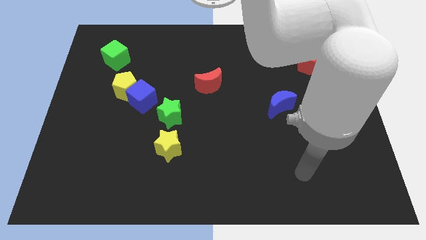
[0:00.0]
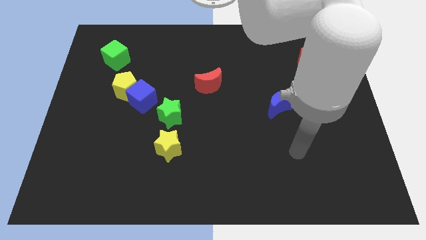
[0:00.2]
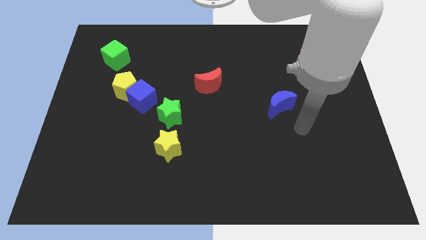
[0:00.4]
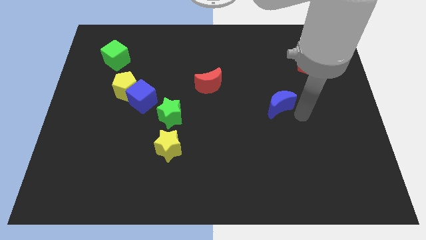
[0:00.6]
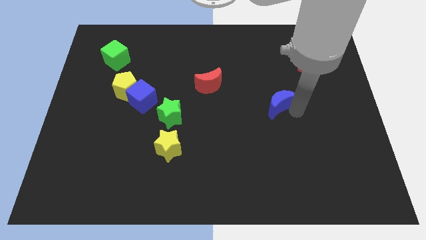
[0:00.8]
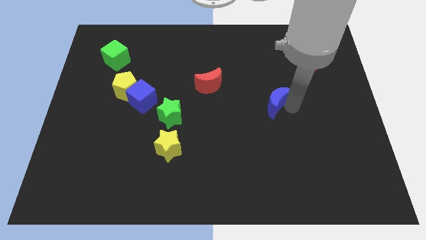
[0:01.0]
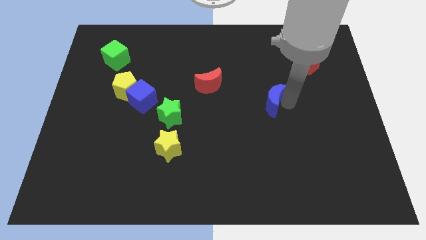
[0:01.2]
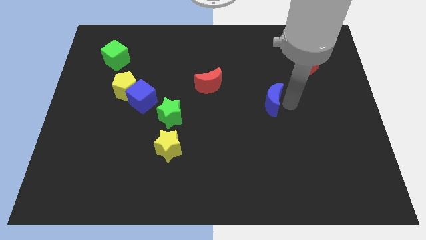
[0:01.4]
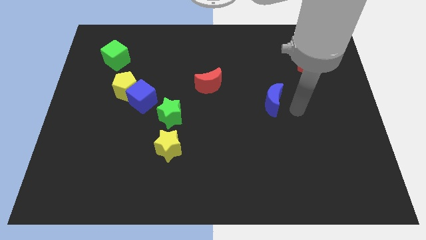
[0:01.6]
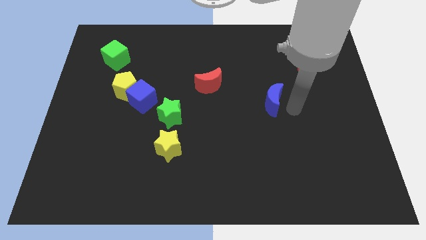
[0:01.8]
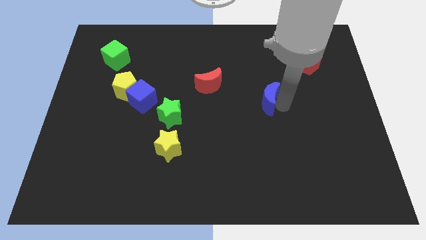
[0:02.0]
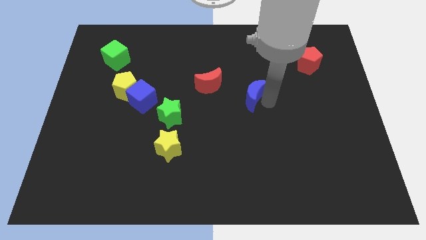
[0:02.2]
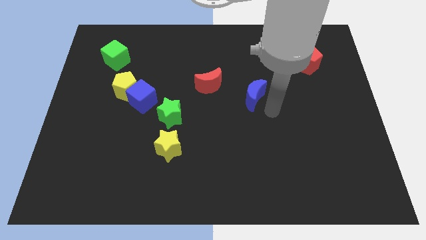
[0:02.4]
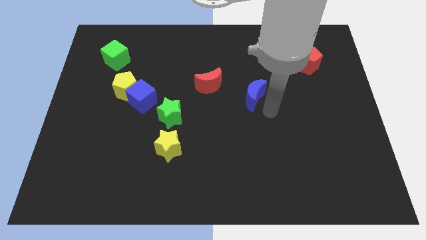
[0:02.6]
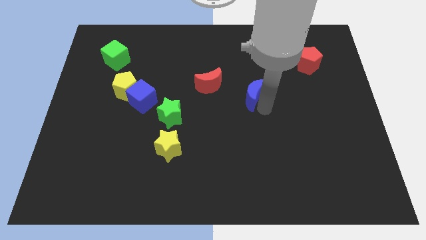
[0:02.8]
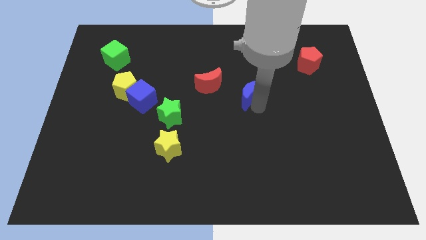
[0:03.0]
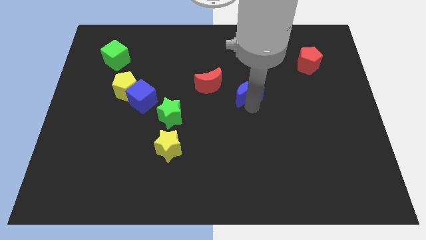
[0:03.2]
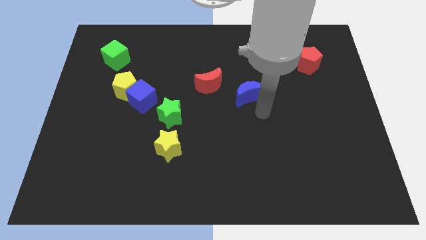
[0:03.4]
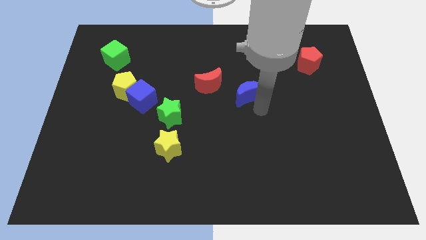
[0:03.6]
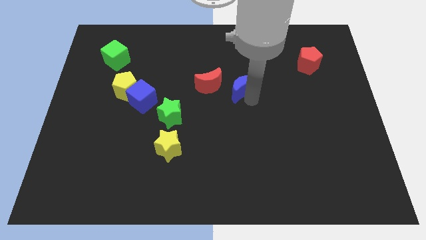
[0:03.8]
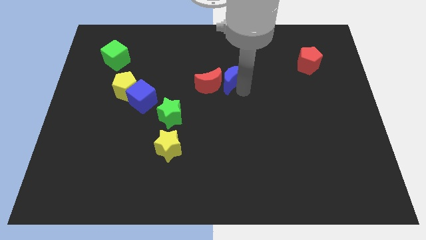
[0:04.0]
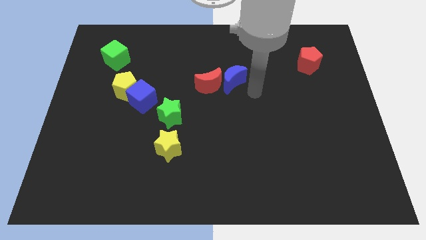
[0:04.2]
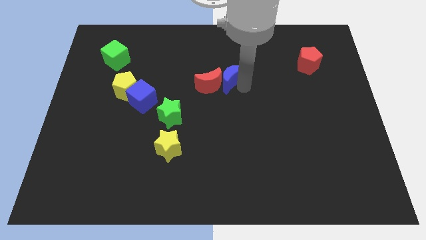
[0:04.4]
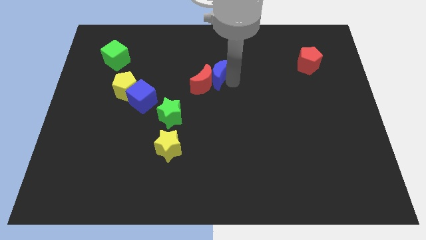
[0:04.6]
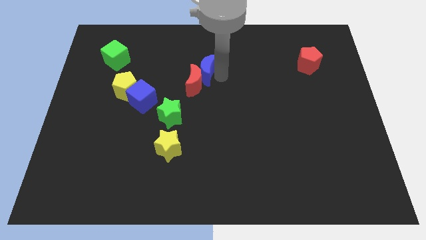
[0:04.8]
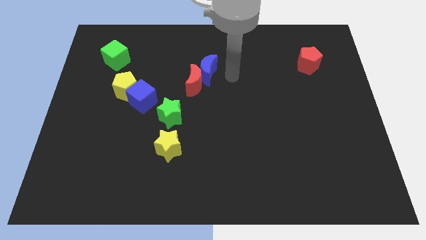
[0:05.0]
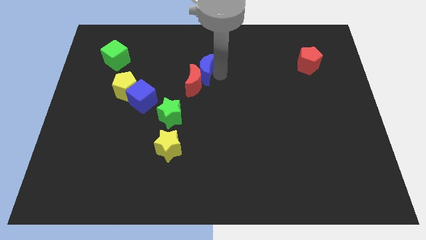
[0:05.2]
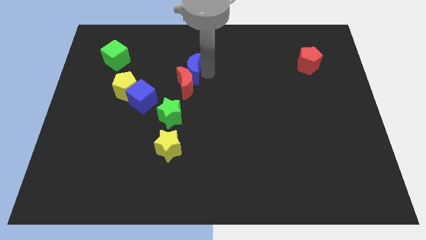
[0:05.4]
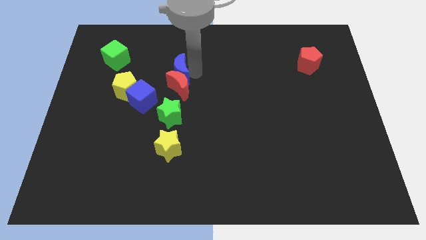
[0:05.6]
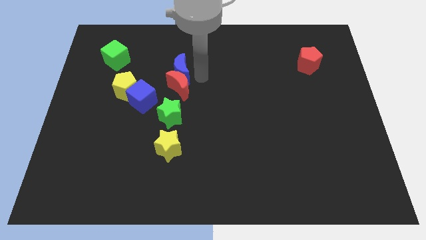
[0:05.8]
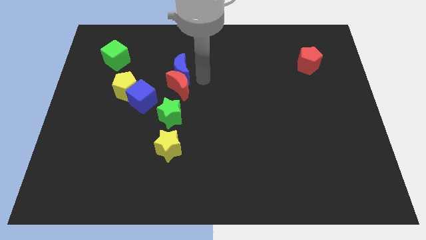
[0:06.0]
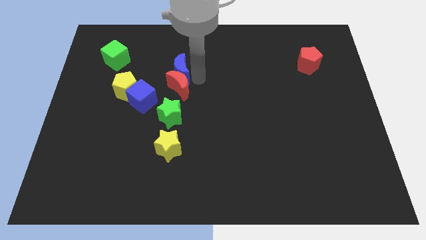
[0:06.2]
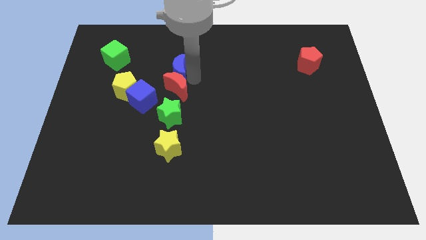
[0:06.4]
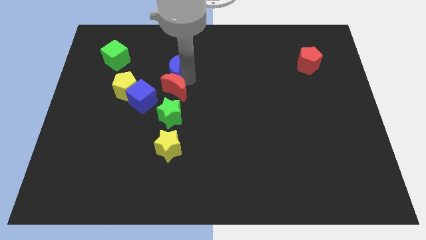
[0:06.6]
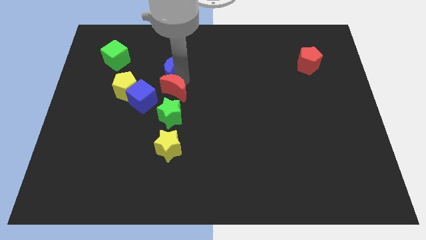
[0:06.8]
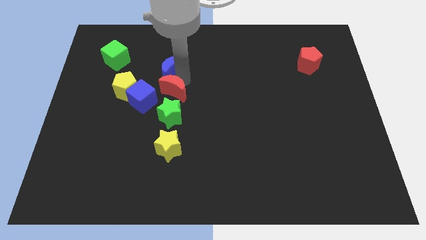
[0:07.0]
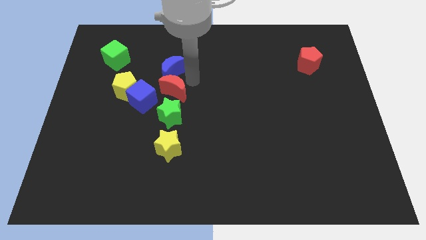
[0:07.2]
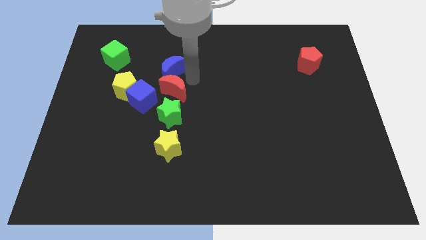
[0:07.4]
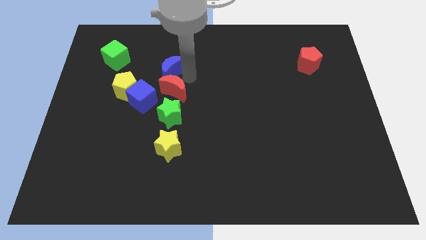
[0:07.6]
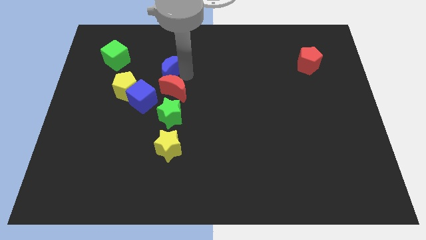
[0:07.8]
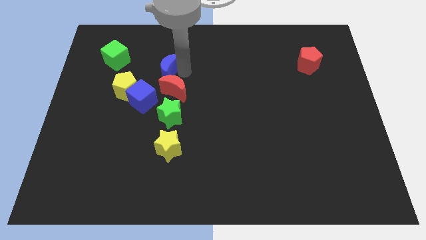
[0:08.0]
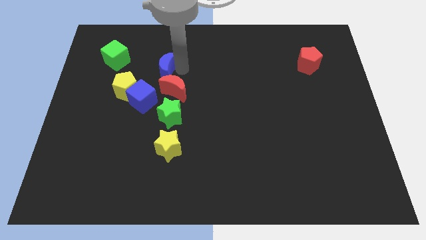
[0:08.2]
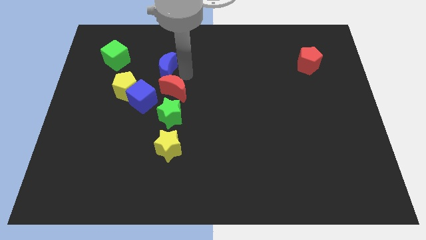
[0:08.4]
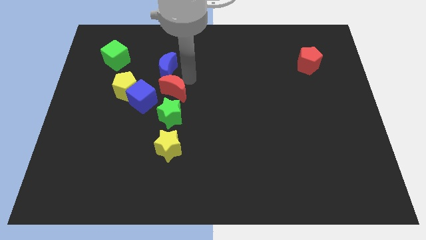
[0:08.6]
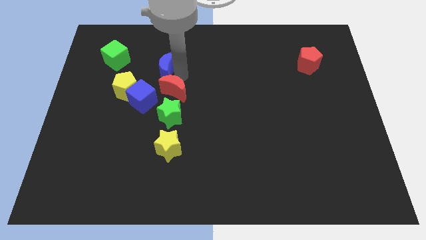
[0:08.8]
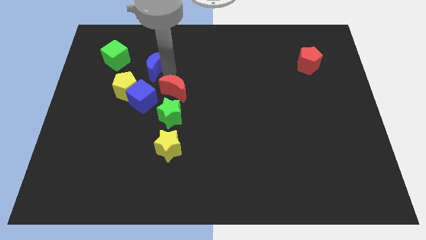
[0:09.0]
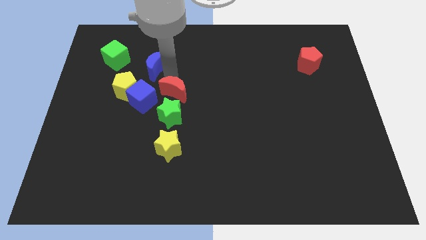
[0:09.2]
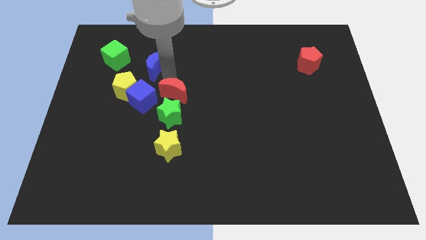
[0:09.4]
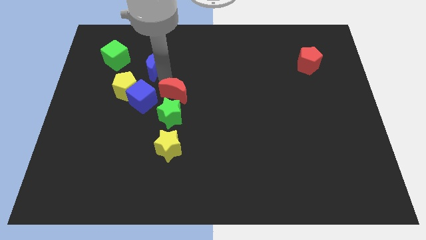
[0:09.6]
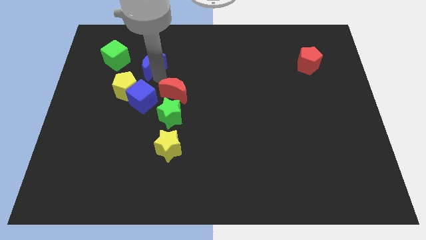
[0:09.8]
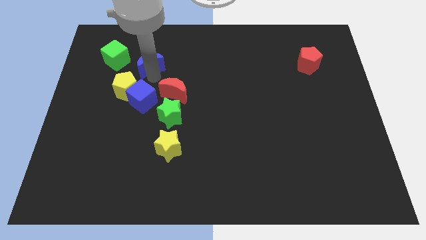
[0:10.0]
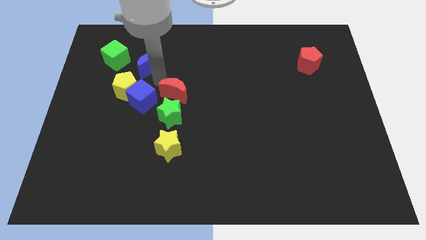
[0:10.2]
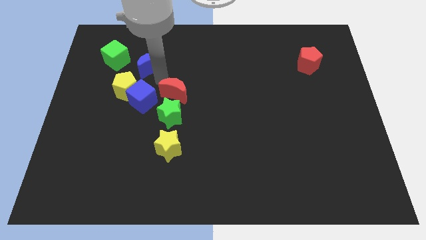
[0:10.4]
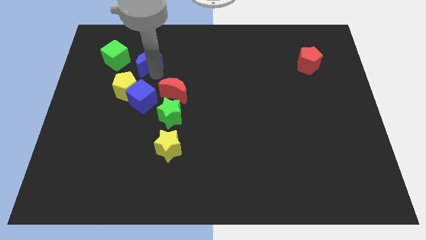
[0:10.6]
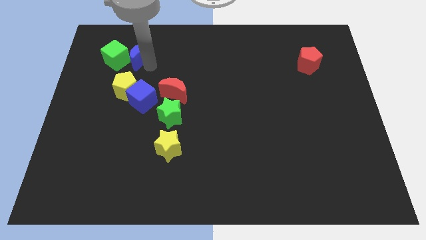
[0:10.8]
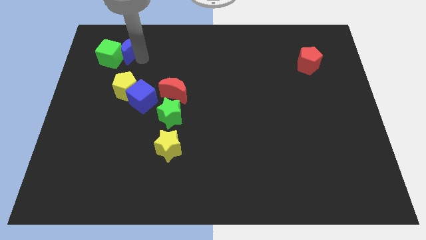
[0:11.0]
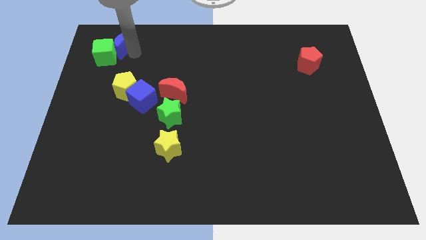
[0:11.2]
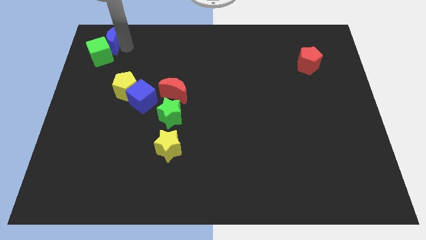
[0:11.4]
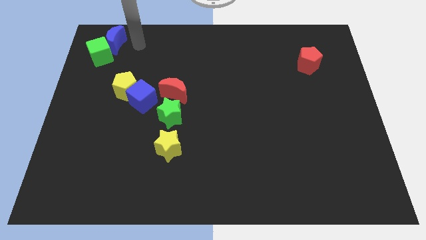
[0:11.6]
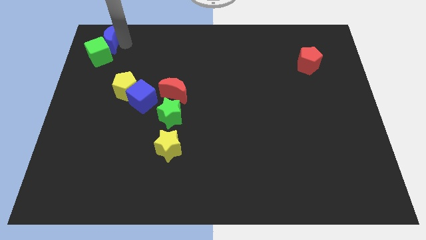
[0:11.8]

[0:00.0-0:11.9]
push the blue moon to the top left corner

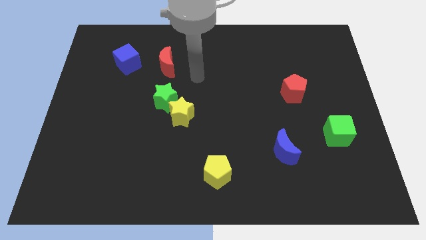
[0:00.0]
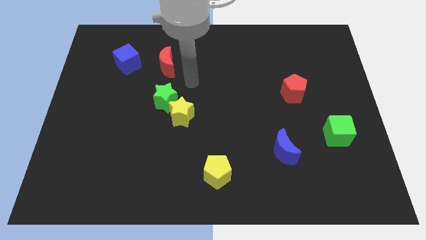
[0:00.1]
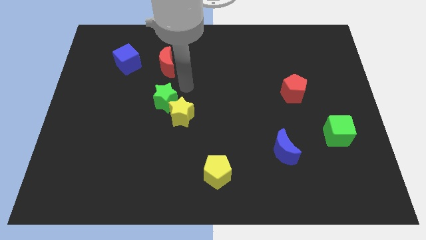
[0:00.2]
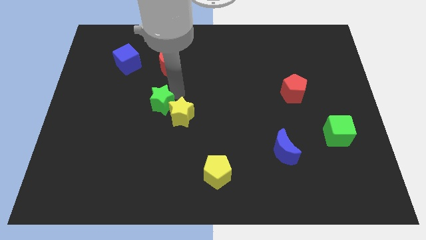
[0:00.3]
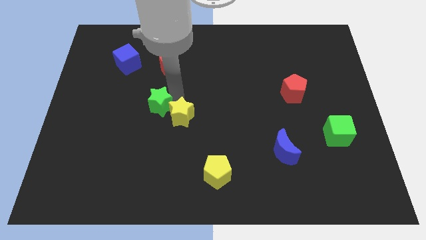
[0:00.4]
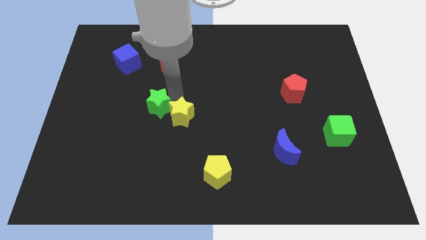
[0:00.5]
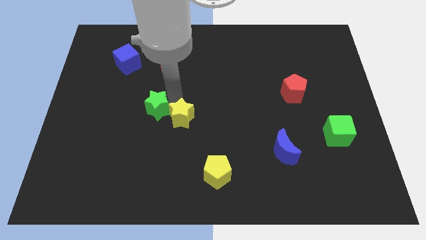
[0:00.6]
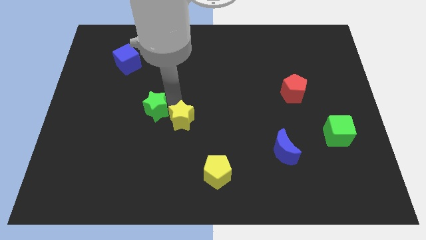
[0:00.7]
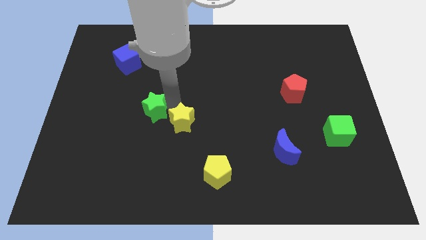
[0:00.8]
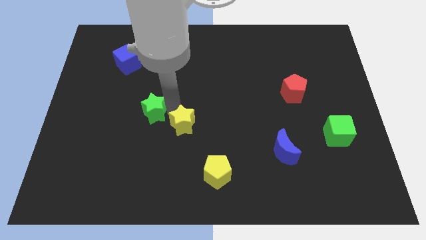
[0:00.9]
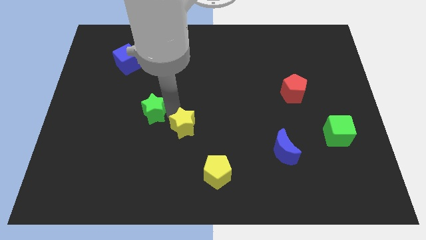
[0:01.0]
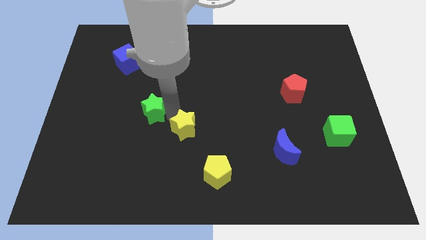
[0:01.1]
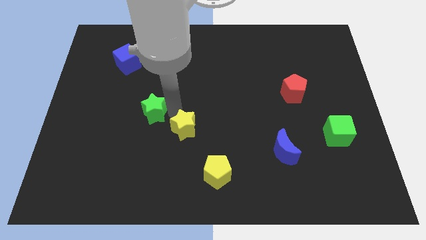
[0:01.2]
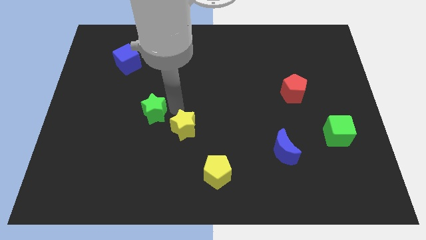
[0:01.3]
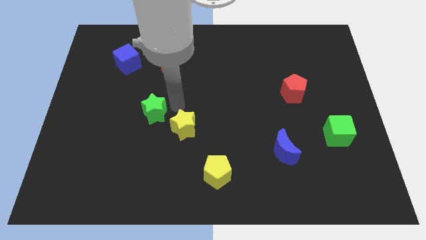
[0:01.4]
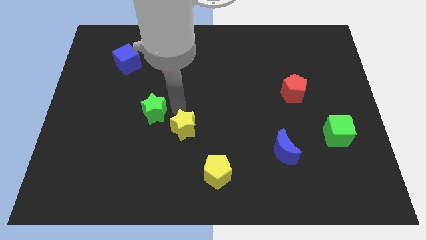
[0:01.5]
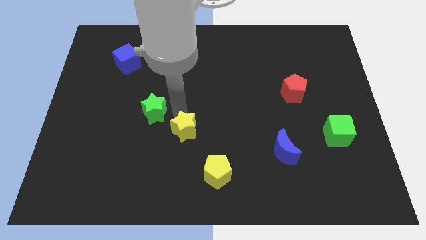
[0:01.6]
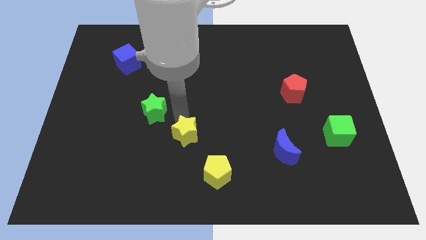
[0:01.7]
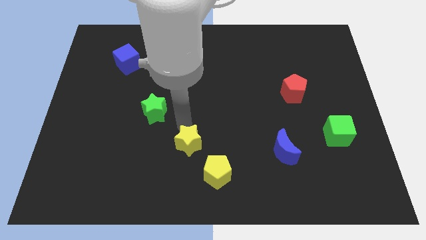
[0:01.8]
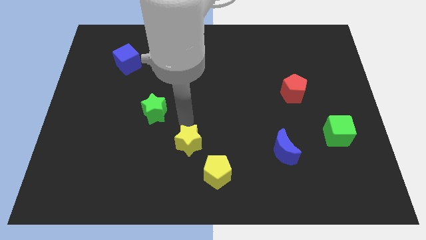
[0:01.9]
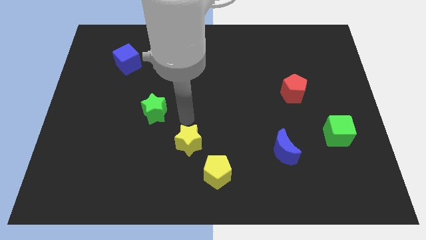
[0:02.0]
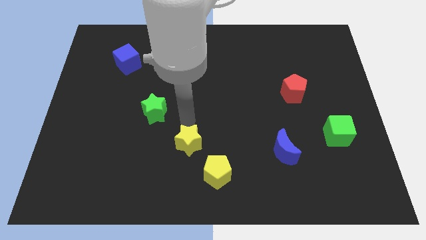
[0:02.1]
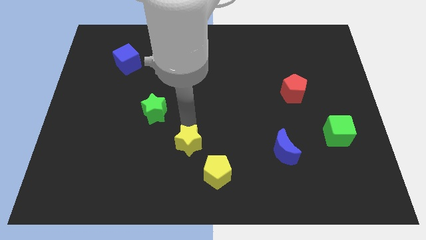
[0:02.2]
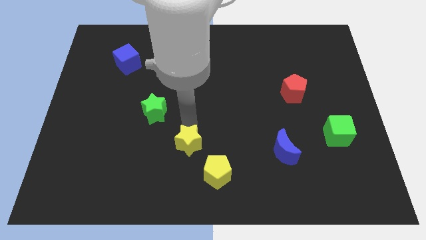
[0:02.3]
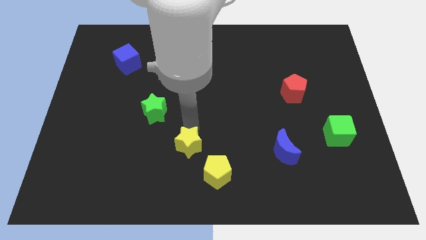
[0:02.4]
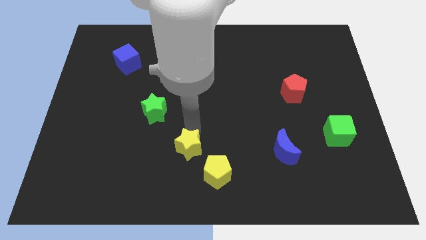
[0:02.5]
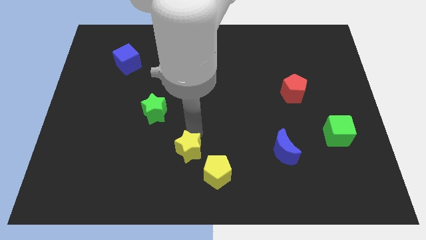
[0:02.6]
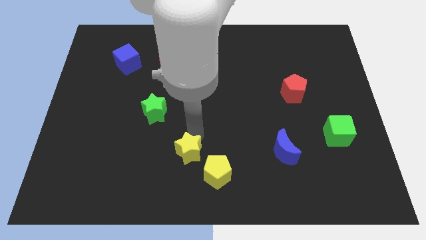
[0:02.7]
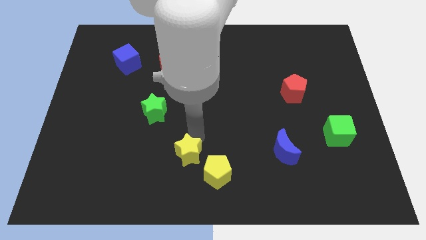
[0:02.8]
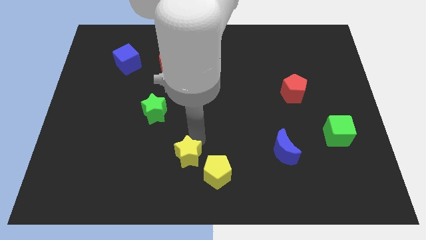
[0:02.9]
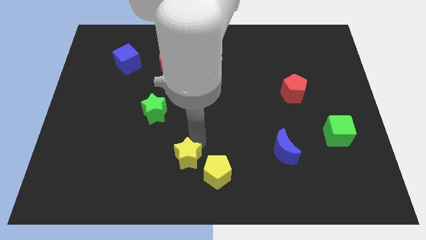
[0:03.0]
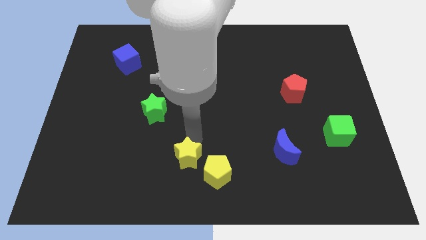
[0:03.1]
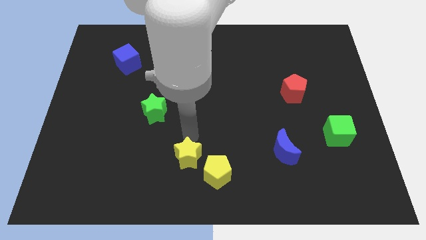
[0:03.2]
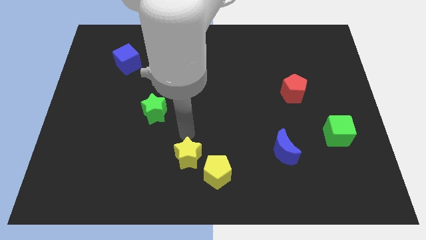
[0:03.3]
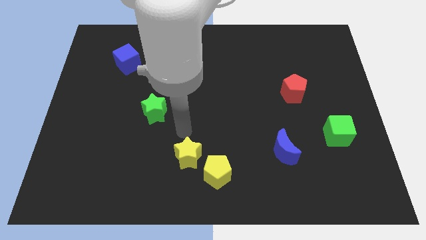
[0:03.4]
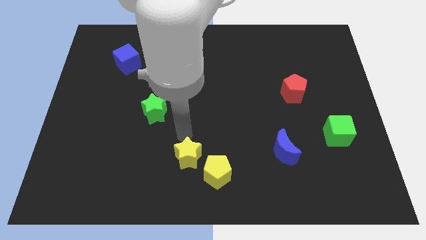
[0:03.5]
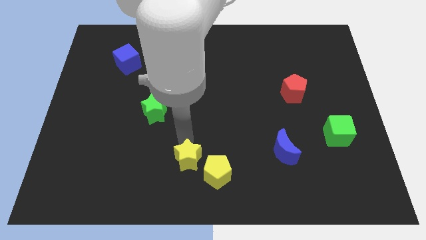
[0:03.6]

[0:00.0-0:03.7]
put the yellow star to the bottom side
